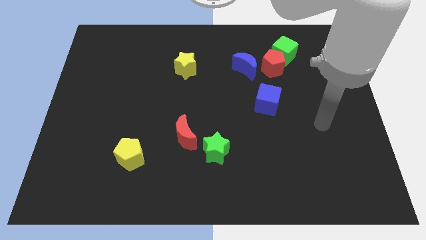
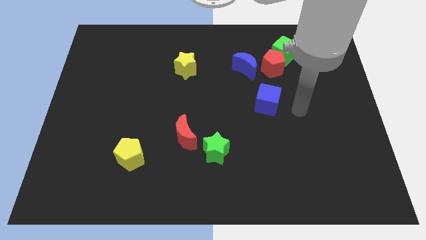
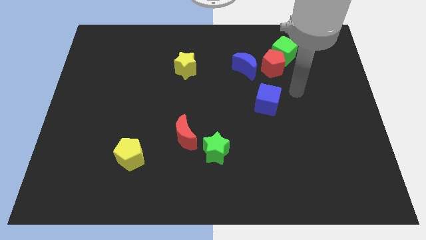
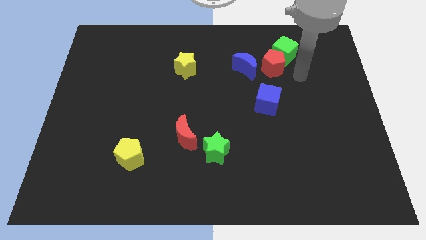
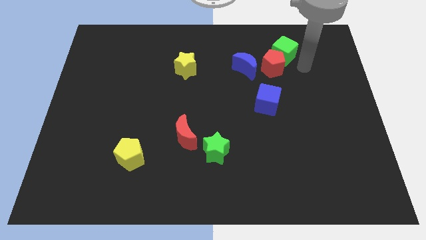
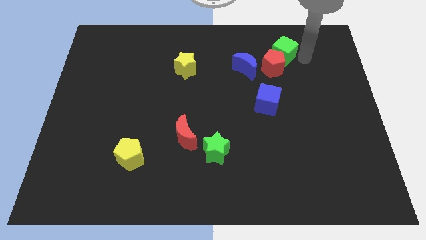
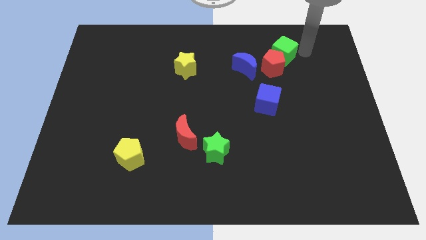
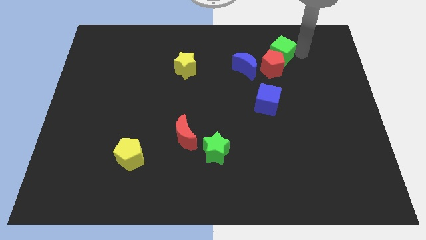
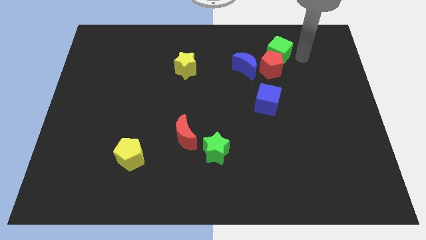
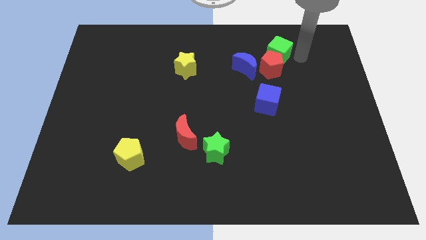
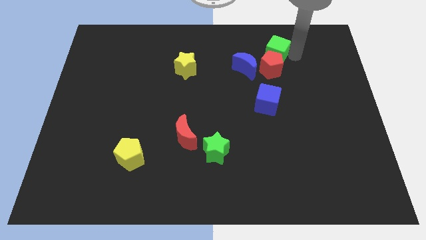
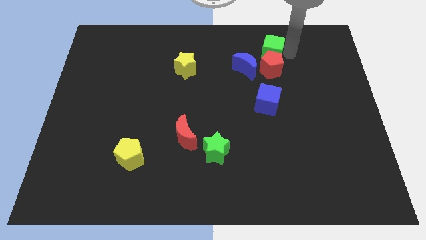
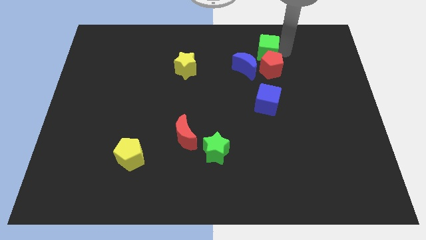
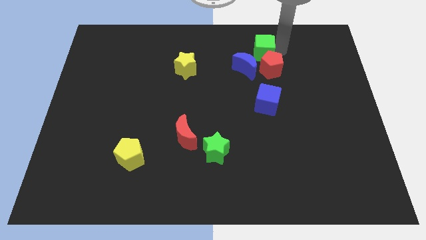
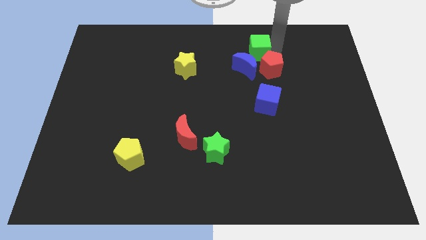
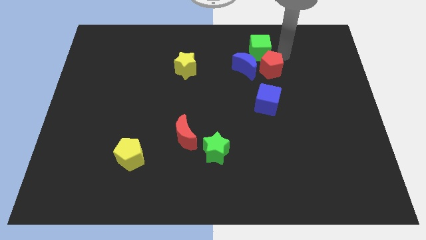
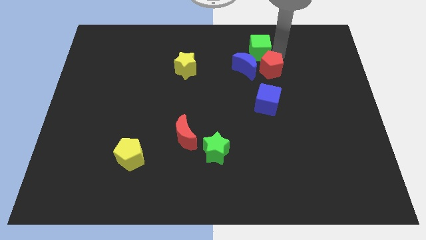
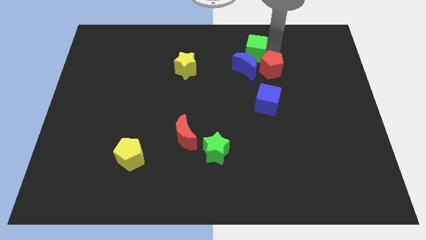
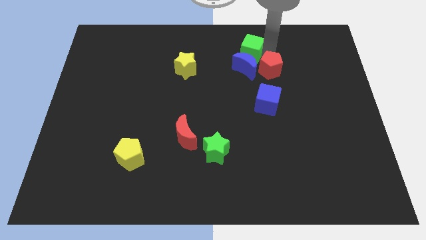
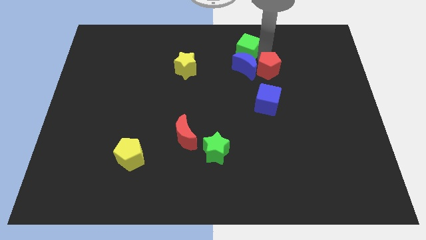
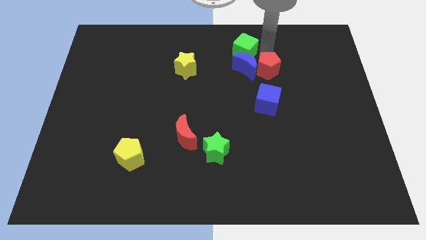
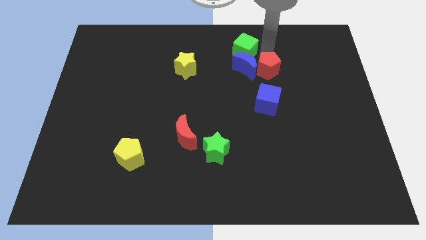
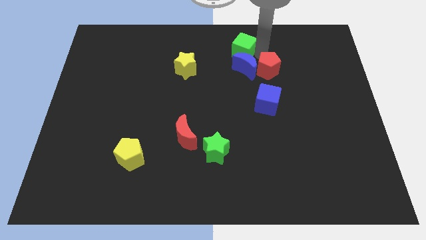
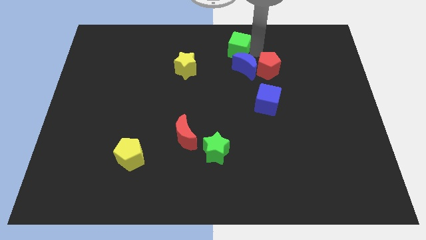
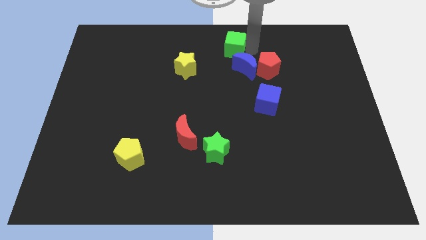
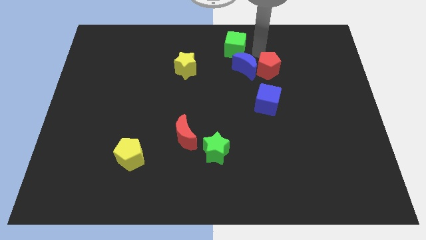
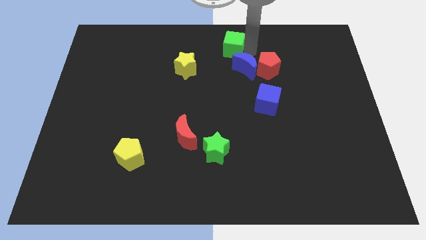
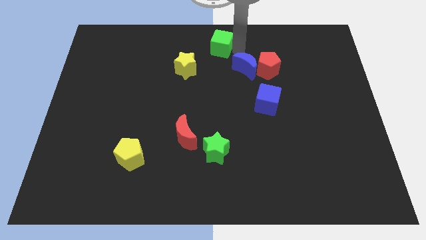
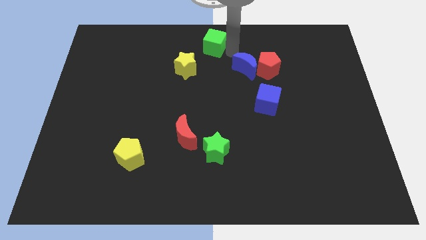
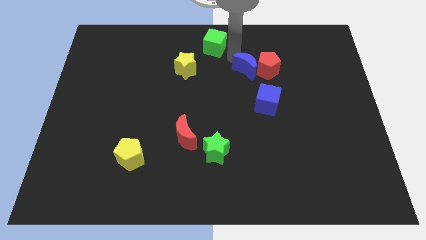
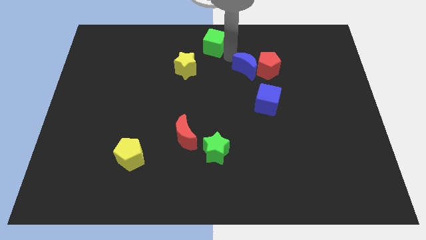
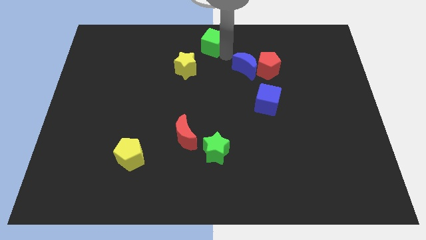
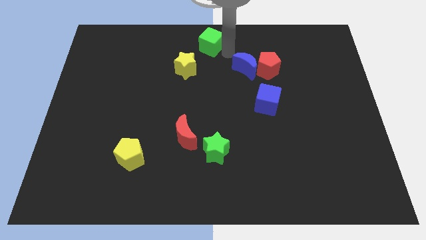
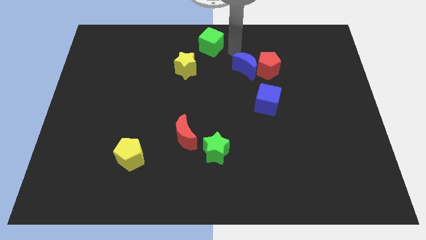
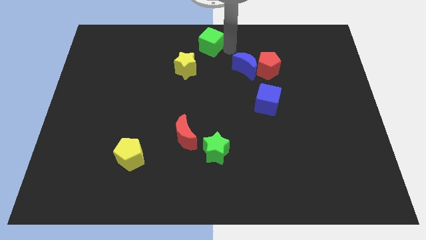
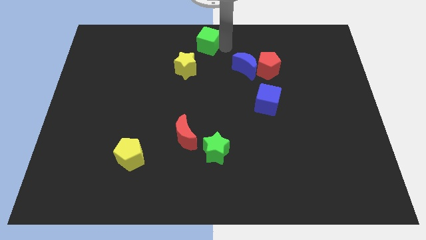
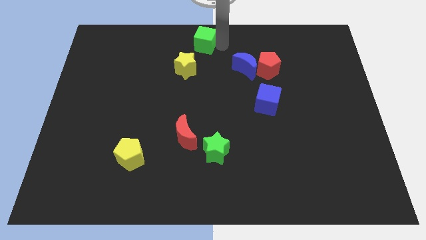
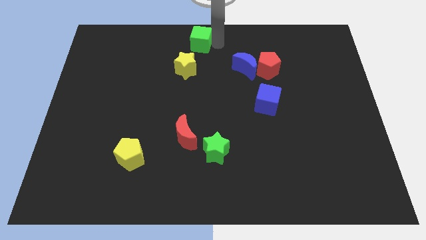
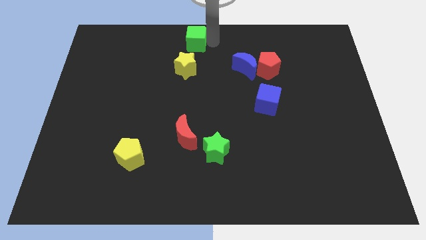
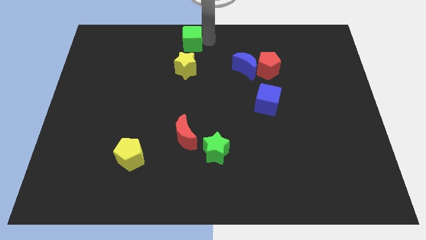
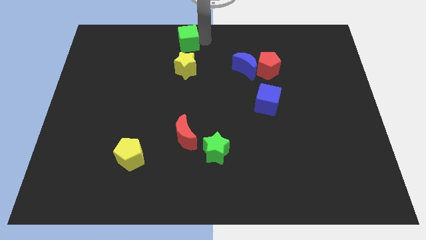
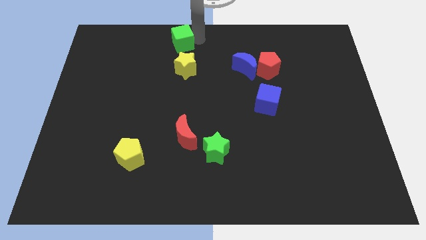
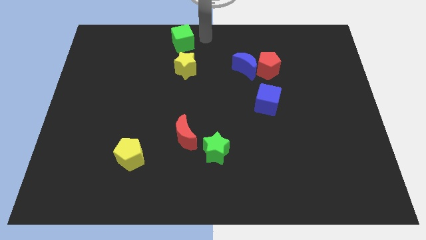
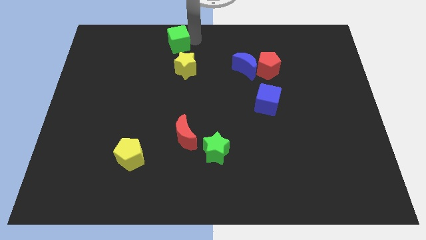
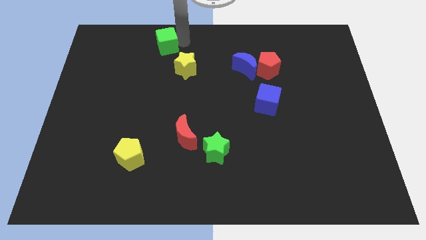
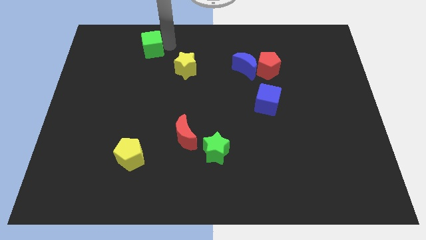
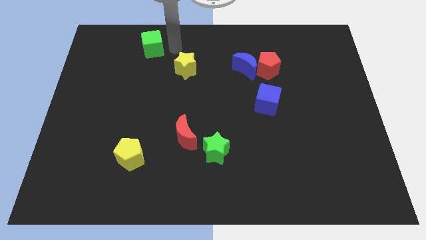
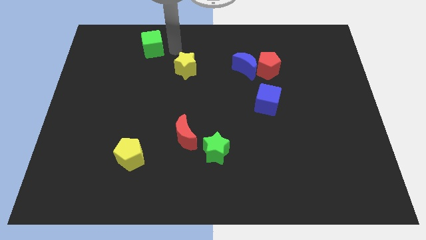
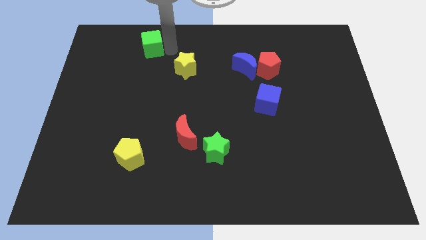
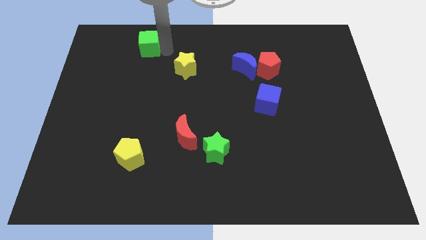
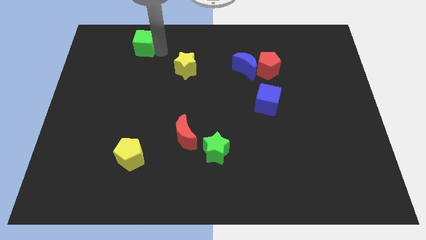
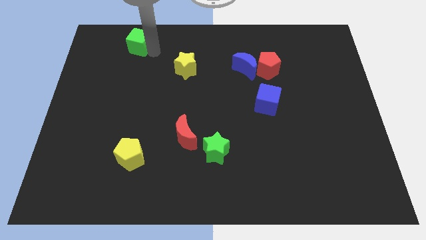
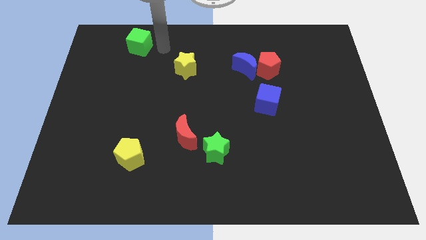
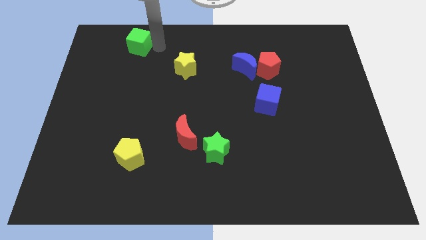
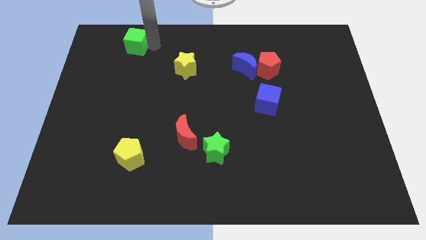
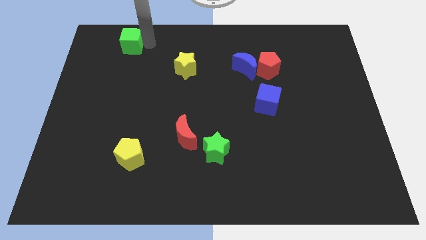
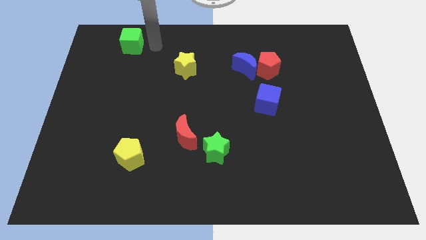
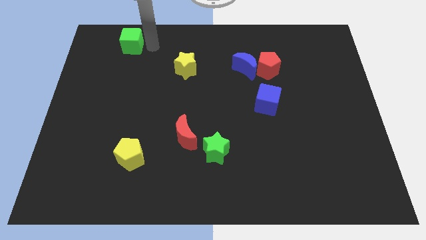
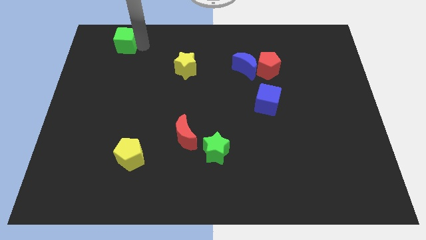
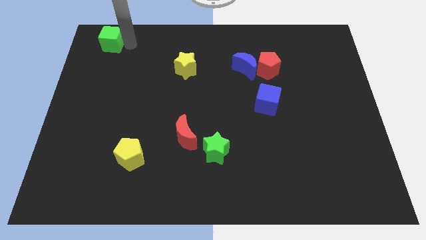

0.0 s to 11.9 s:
push the green cube to the top left

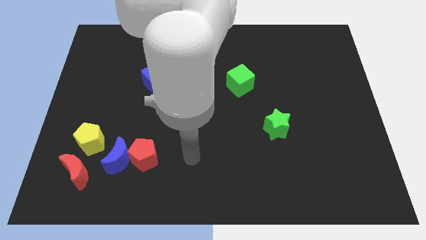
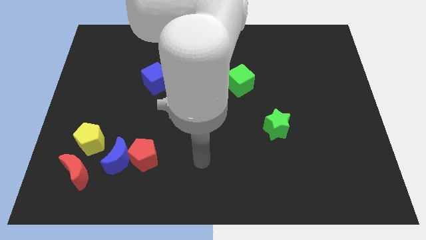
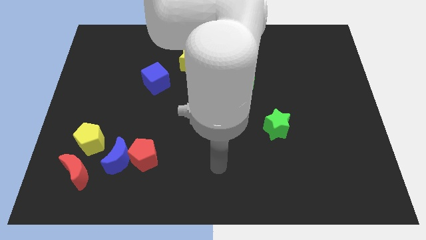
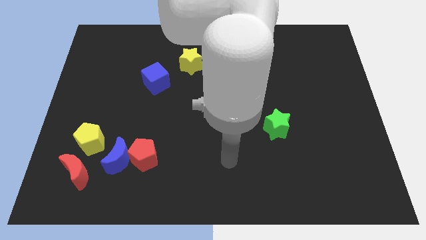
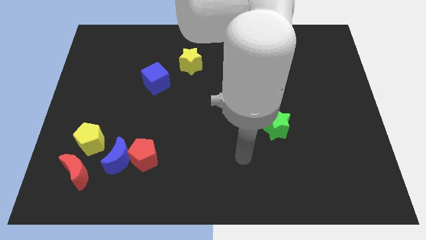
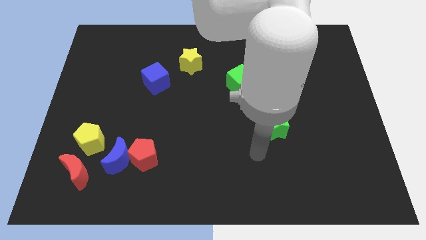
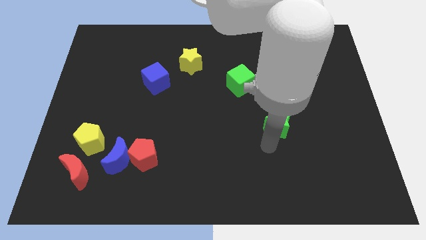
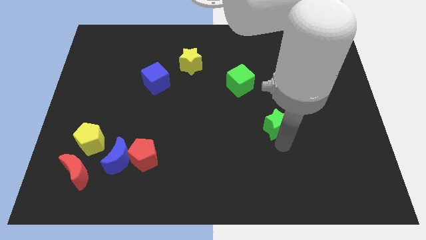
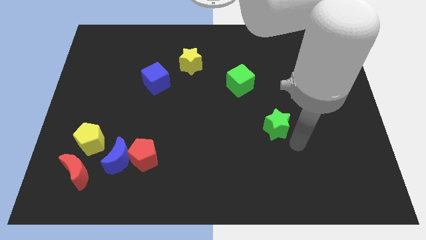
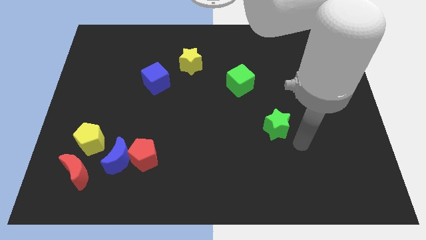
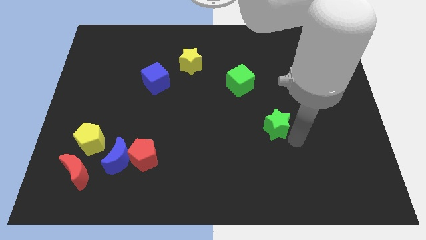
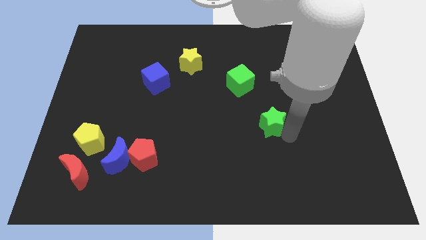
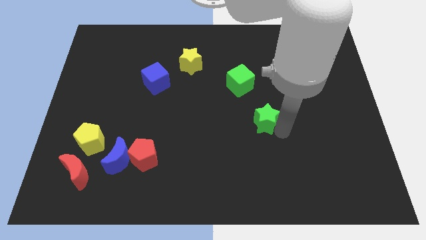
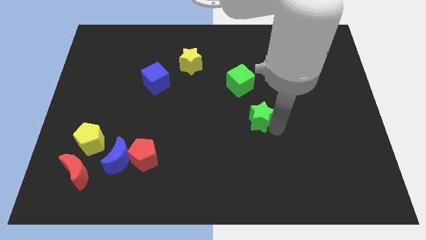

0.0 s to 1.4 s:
push the green star to the center
